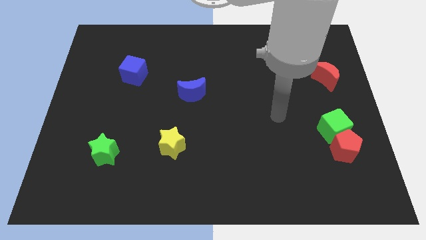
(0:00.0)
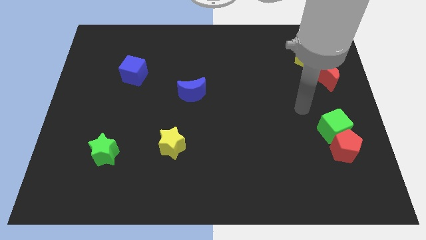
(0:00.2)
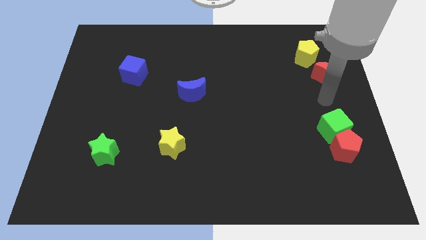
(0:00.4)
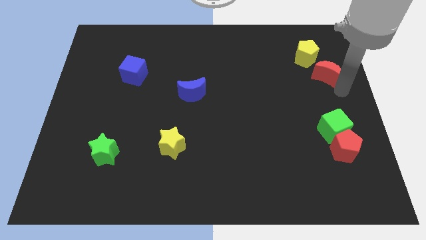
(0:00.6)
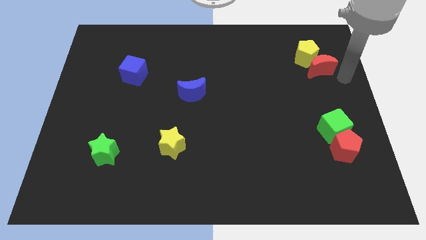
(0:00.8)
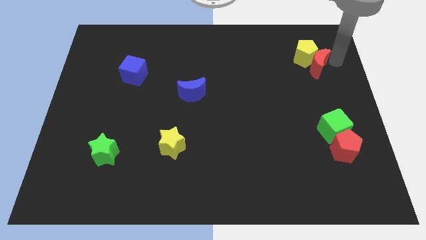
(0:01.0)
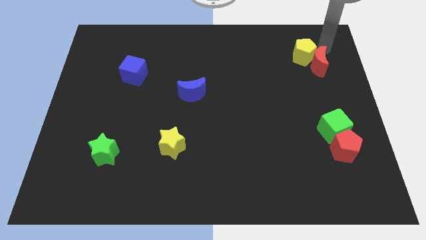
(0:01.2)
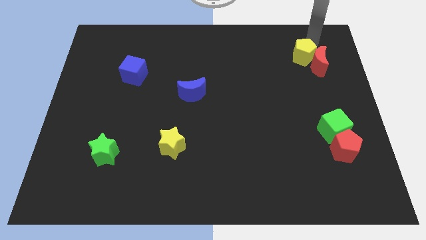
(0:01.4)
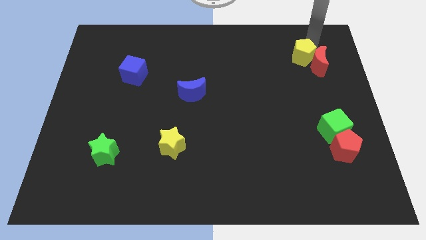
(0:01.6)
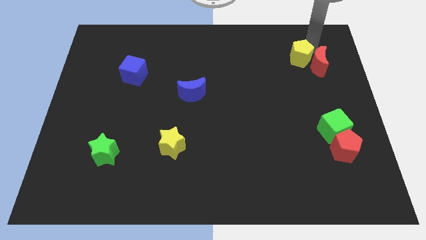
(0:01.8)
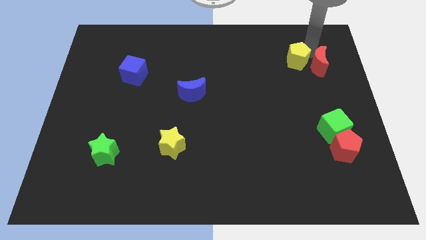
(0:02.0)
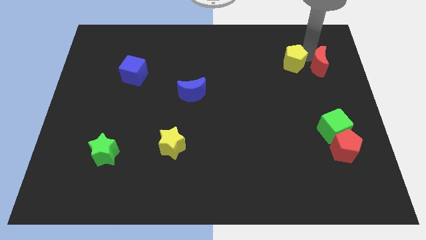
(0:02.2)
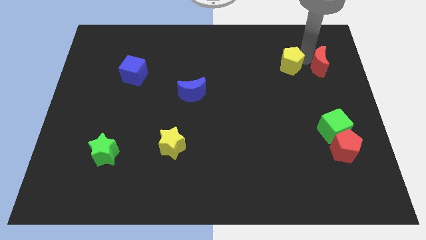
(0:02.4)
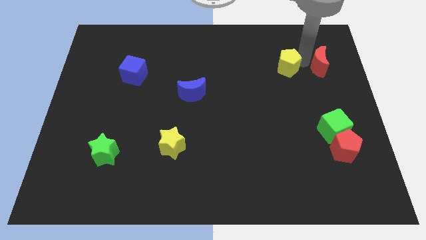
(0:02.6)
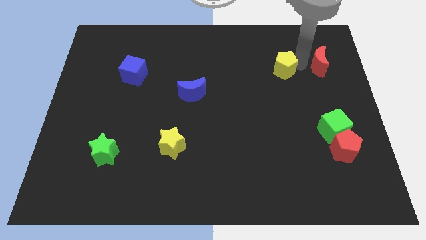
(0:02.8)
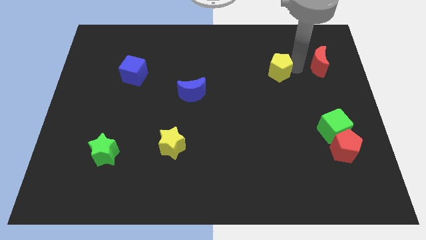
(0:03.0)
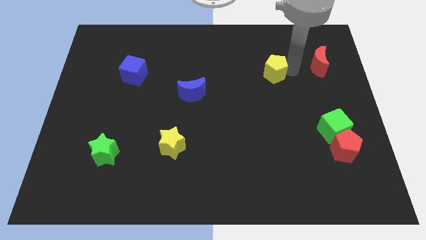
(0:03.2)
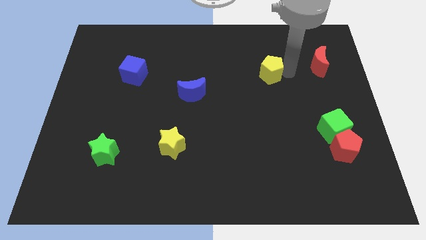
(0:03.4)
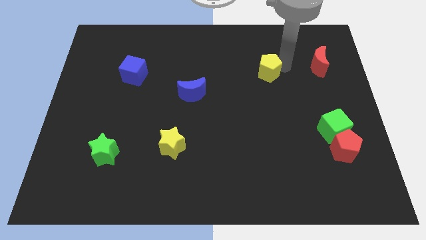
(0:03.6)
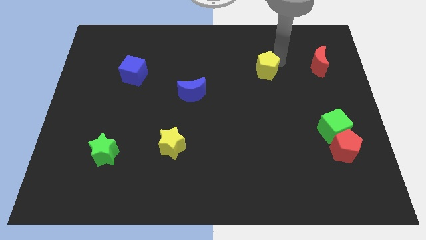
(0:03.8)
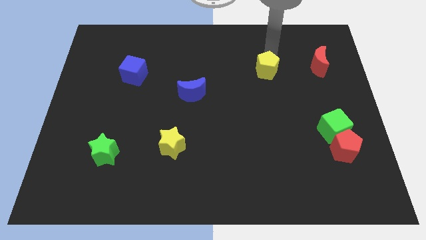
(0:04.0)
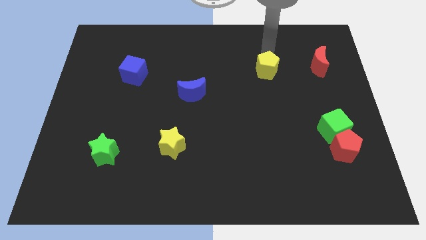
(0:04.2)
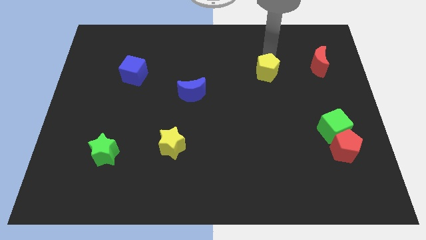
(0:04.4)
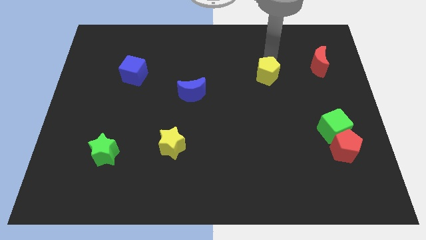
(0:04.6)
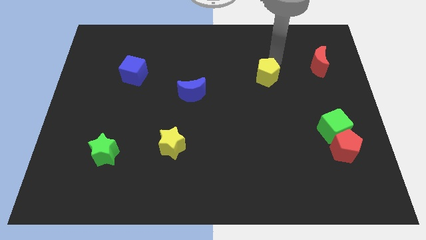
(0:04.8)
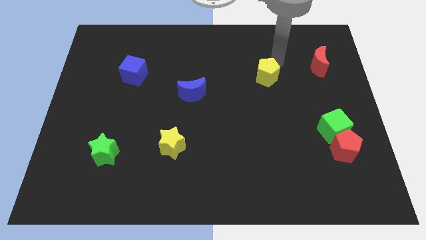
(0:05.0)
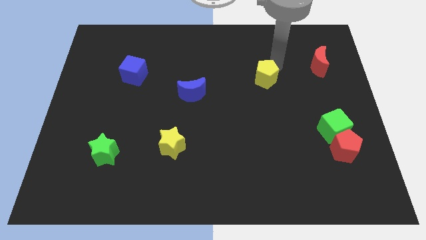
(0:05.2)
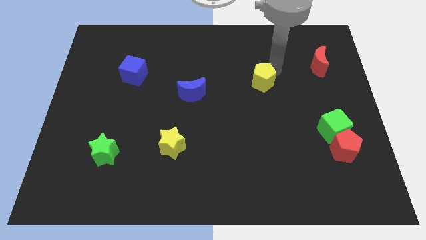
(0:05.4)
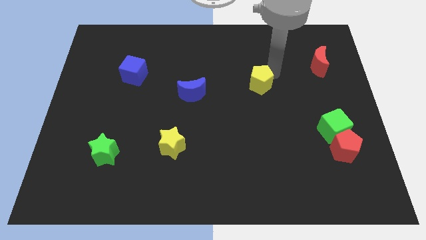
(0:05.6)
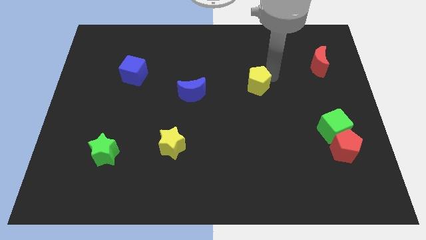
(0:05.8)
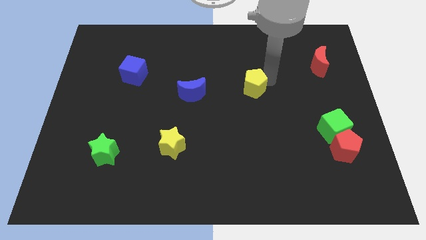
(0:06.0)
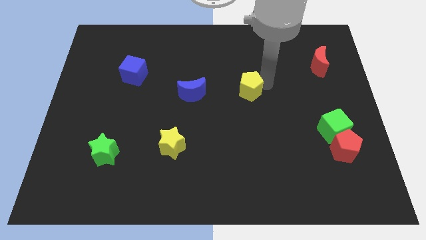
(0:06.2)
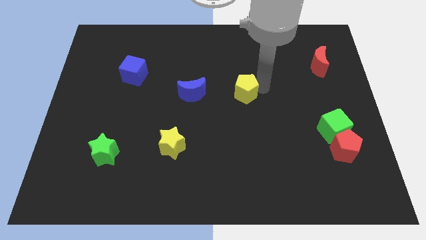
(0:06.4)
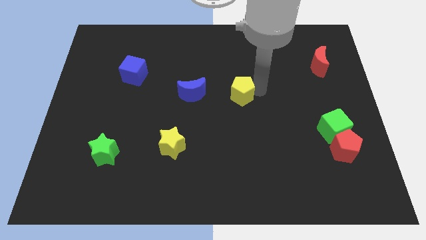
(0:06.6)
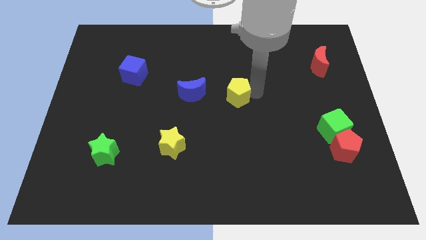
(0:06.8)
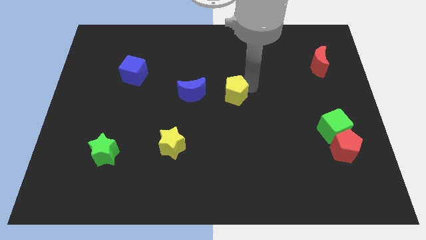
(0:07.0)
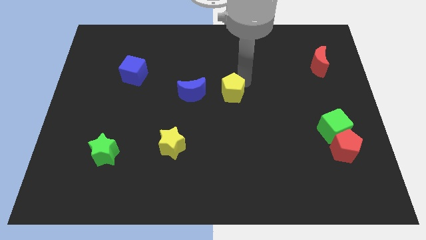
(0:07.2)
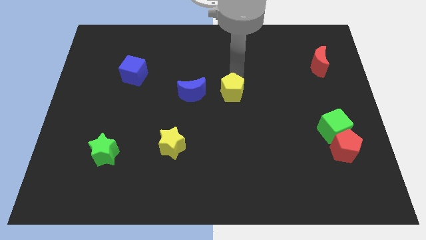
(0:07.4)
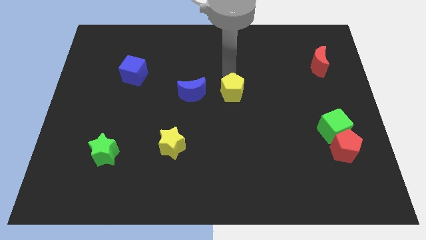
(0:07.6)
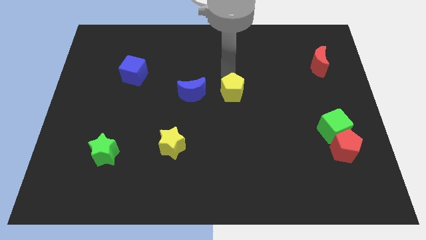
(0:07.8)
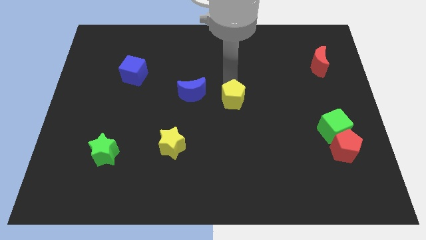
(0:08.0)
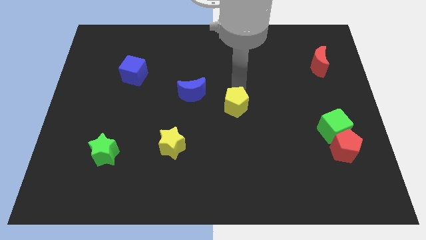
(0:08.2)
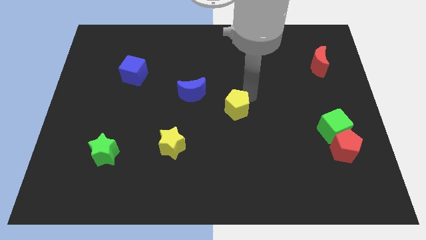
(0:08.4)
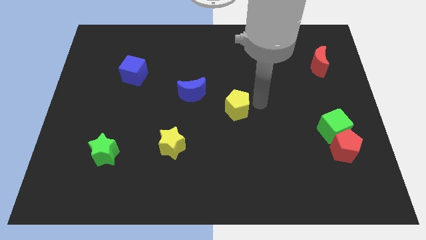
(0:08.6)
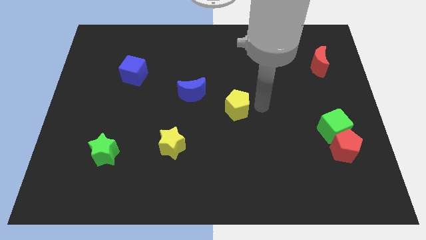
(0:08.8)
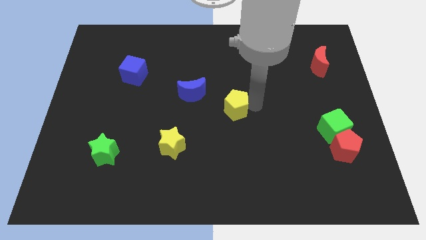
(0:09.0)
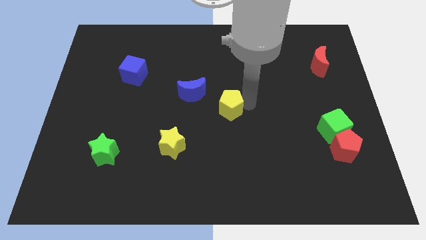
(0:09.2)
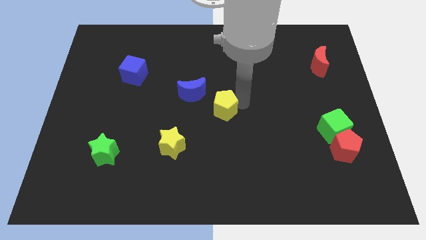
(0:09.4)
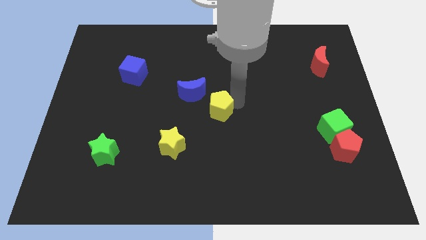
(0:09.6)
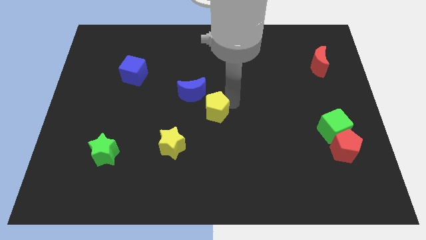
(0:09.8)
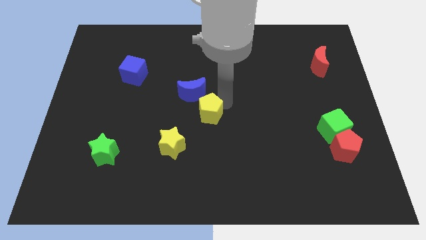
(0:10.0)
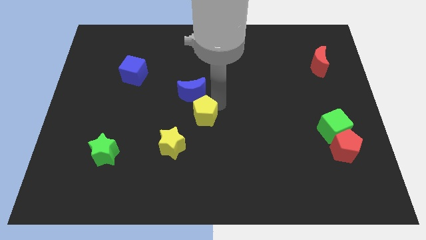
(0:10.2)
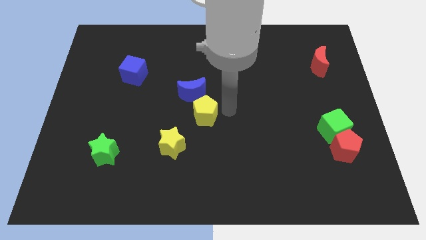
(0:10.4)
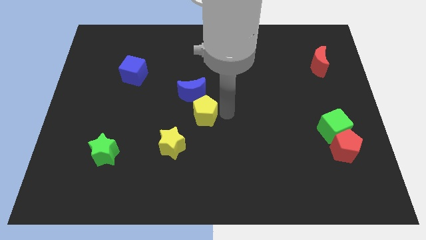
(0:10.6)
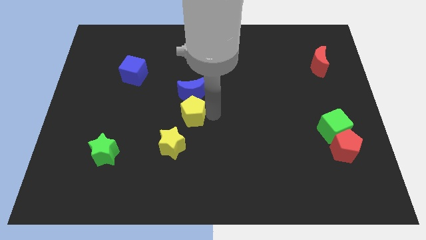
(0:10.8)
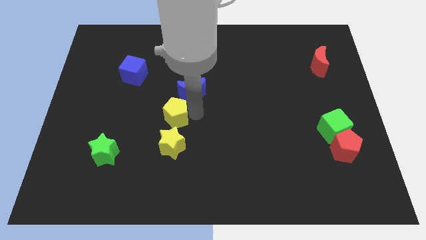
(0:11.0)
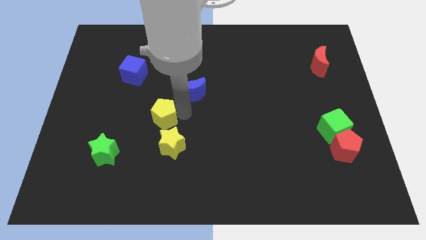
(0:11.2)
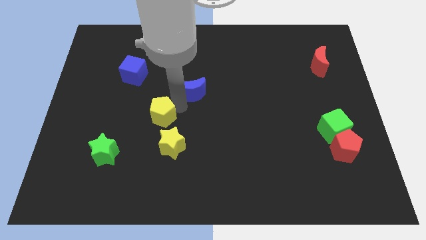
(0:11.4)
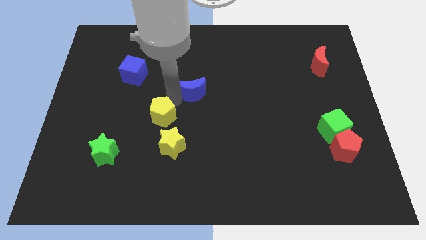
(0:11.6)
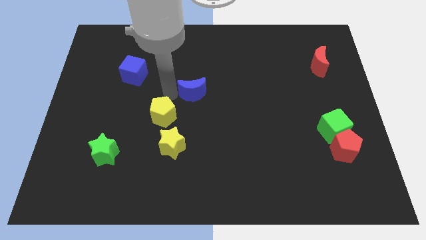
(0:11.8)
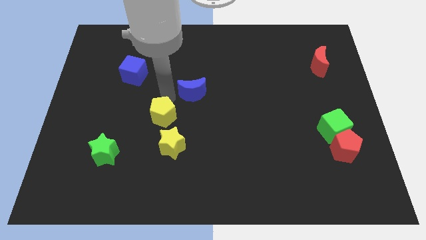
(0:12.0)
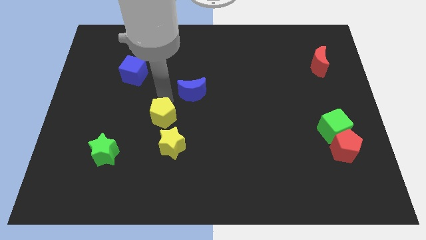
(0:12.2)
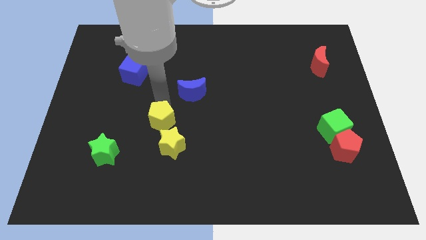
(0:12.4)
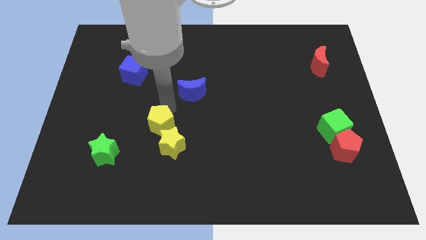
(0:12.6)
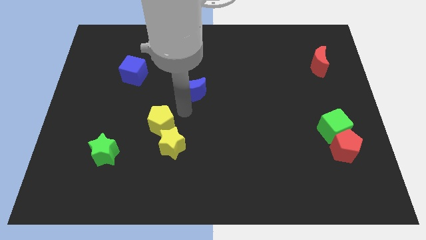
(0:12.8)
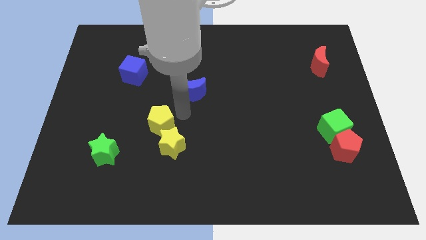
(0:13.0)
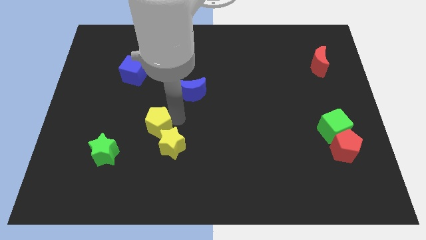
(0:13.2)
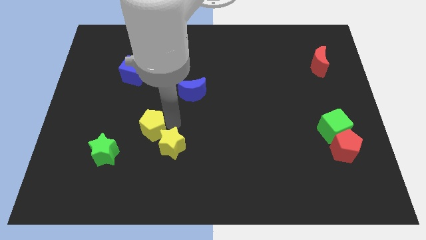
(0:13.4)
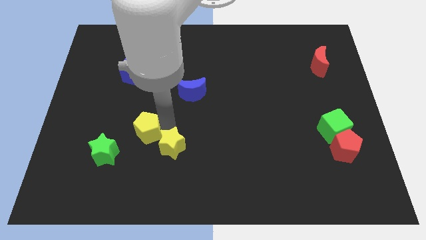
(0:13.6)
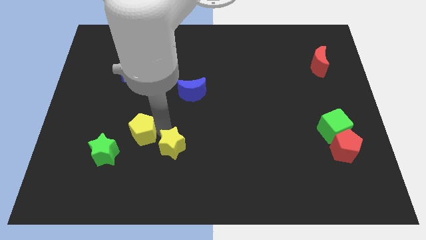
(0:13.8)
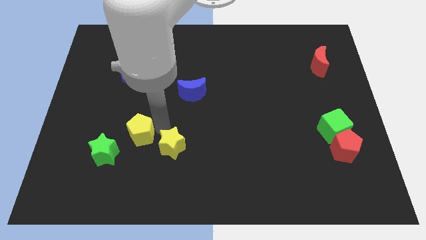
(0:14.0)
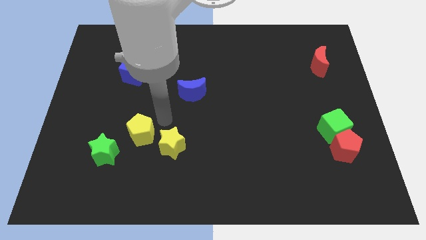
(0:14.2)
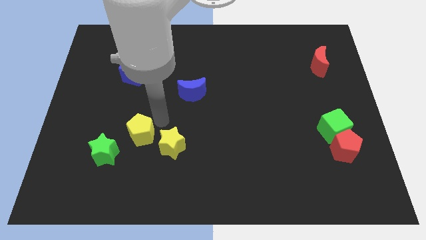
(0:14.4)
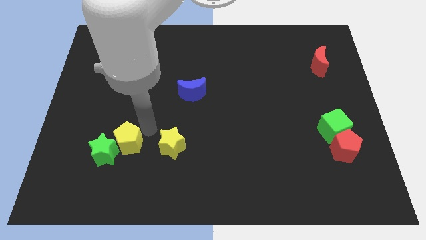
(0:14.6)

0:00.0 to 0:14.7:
put the yellow pentagon towards the green star

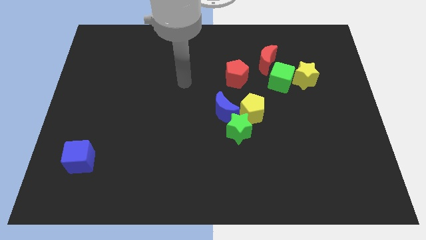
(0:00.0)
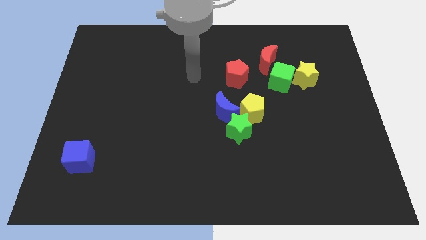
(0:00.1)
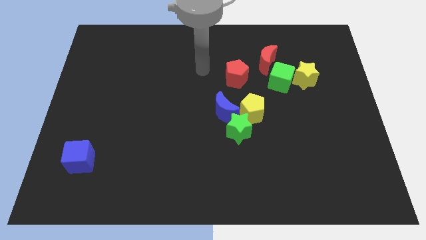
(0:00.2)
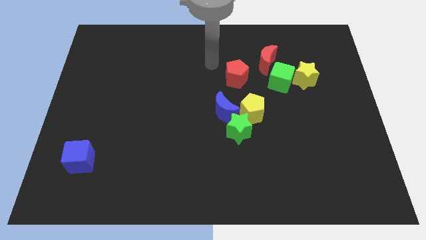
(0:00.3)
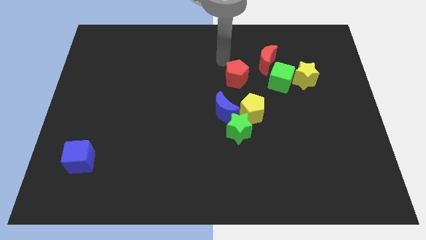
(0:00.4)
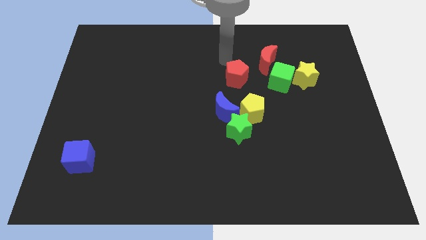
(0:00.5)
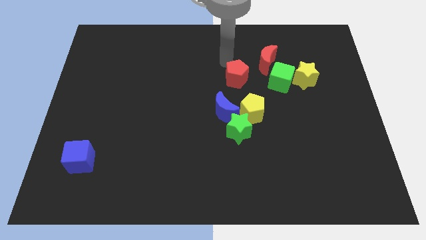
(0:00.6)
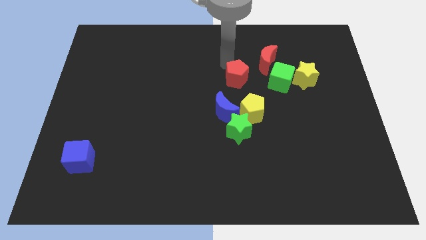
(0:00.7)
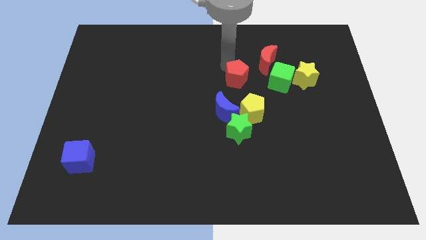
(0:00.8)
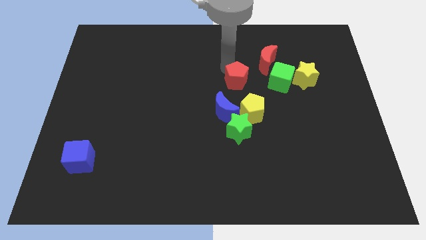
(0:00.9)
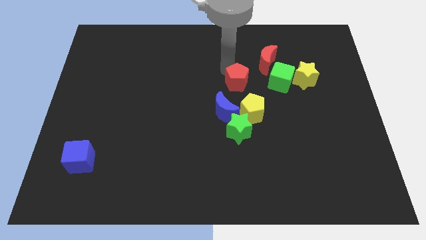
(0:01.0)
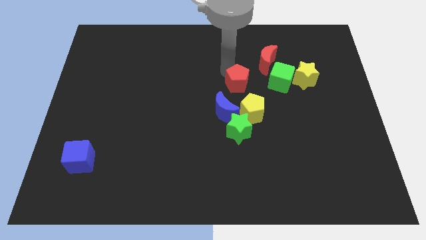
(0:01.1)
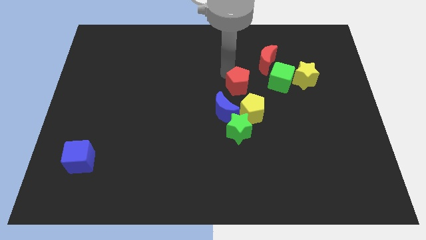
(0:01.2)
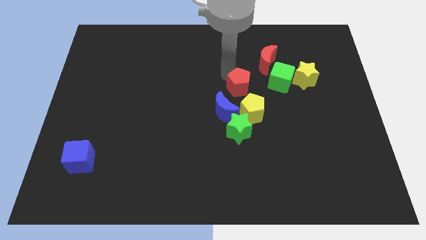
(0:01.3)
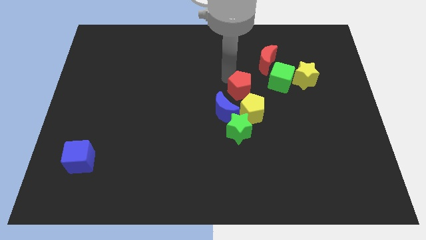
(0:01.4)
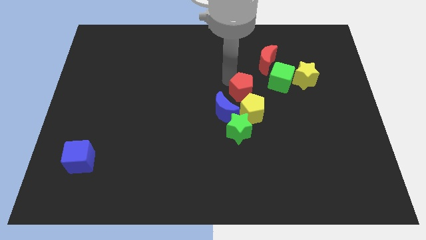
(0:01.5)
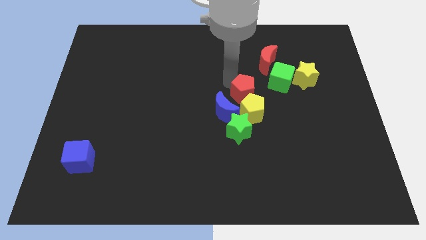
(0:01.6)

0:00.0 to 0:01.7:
slide the red pentagon next to the yellow pentagon
